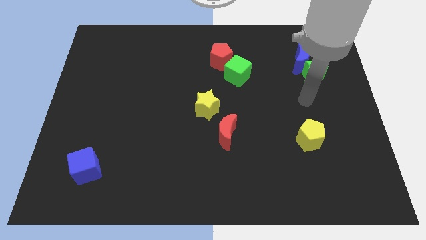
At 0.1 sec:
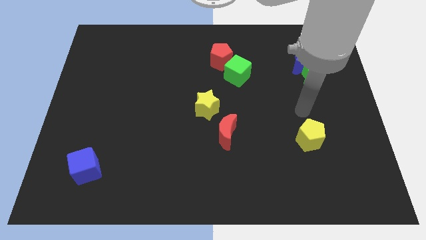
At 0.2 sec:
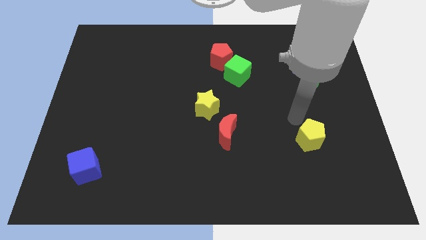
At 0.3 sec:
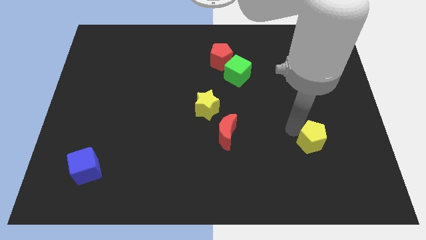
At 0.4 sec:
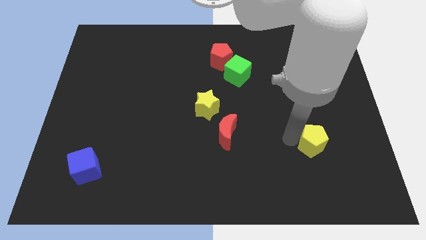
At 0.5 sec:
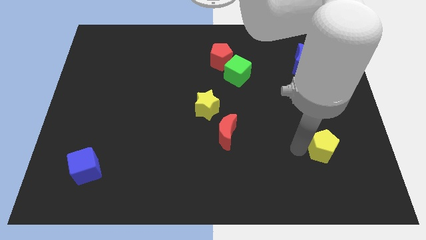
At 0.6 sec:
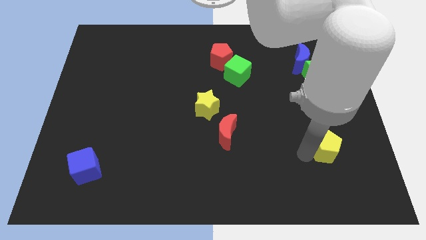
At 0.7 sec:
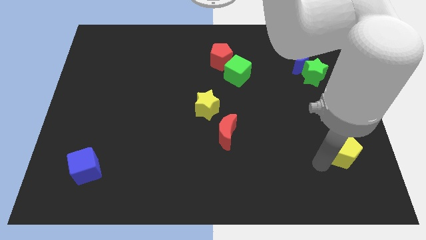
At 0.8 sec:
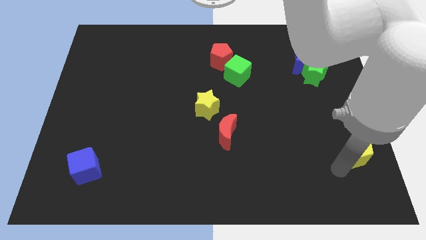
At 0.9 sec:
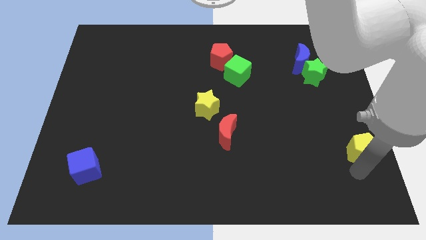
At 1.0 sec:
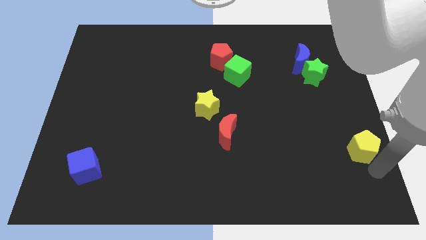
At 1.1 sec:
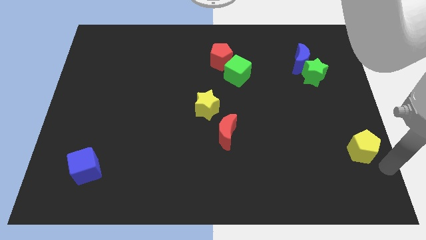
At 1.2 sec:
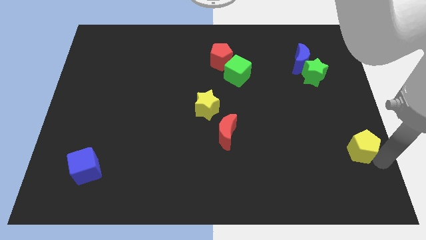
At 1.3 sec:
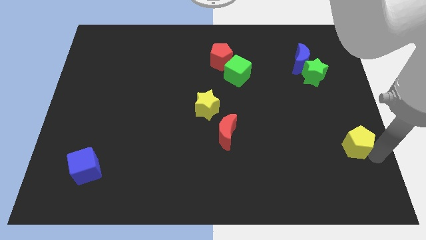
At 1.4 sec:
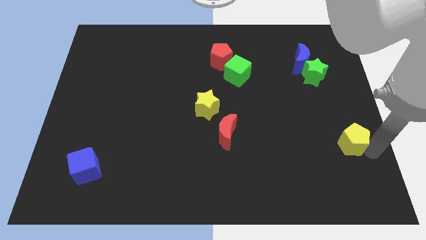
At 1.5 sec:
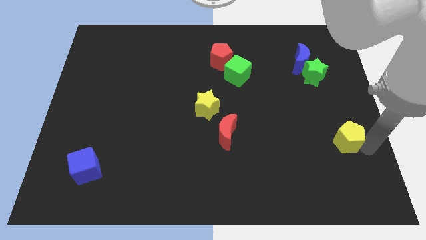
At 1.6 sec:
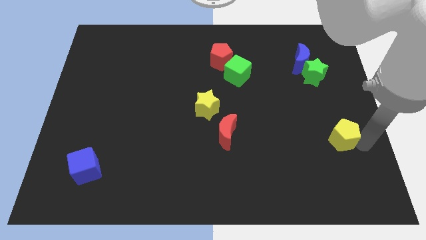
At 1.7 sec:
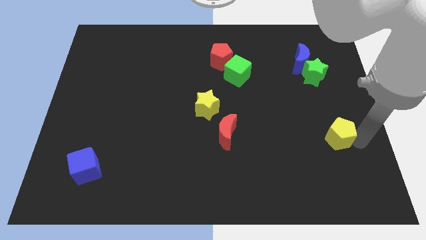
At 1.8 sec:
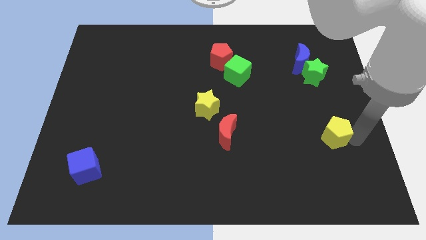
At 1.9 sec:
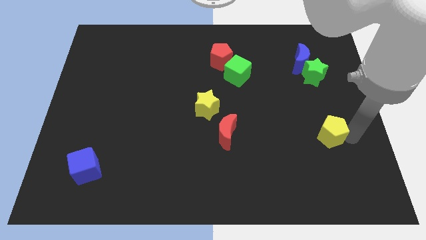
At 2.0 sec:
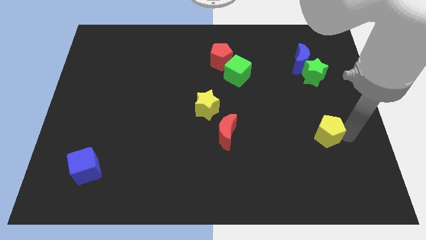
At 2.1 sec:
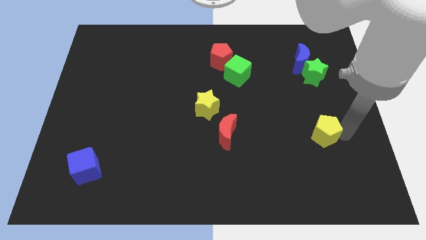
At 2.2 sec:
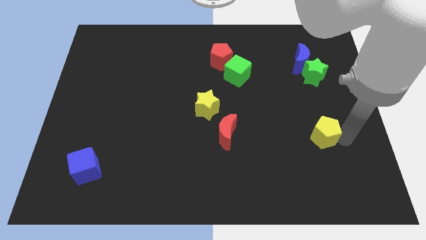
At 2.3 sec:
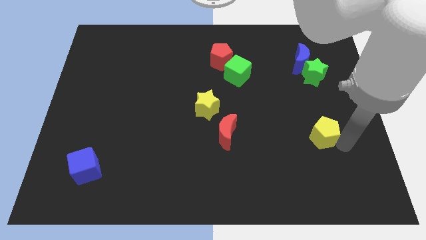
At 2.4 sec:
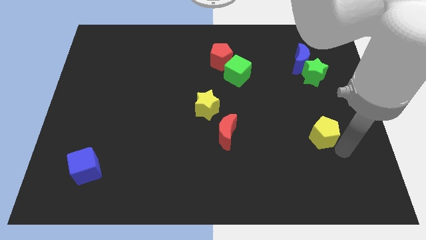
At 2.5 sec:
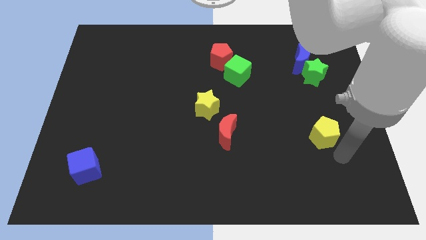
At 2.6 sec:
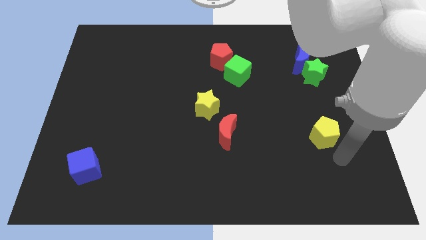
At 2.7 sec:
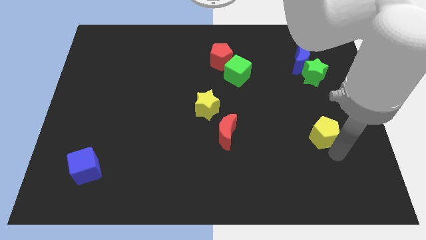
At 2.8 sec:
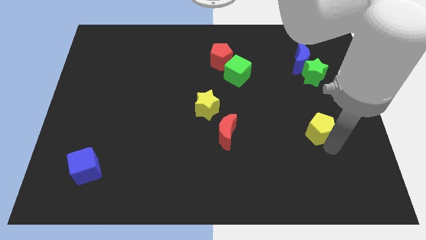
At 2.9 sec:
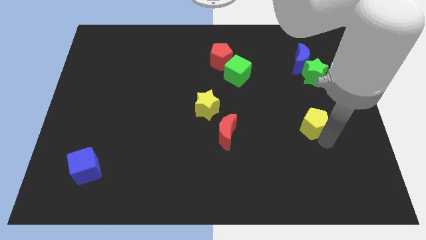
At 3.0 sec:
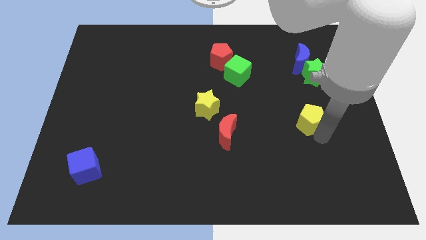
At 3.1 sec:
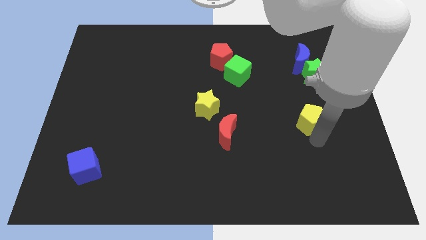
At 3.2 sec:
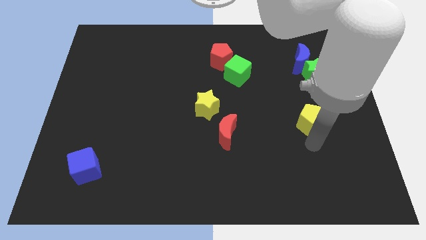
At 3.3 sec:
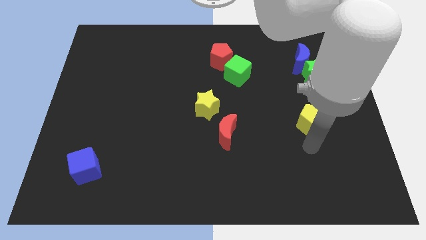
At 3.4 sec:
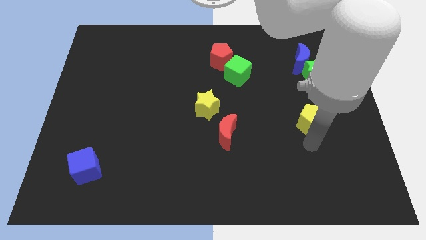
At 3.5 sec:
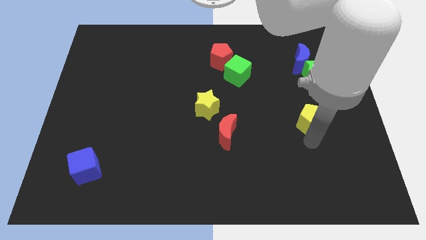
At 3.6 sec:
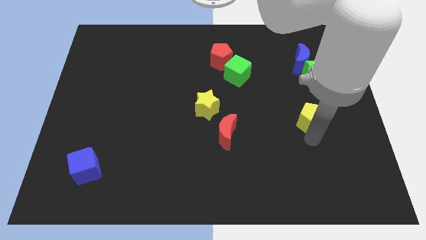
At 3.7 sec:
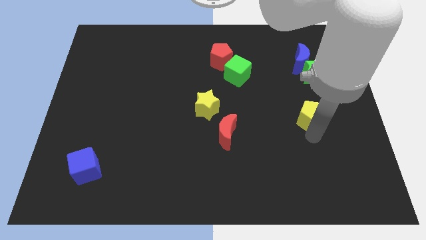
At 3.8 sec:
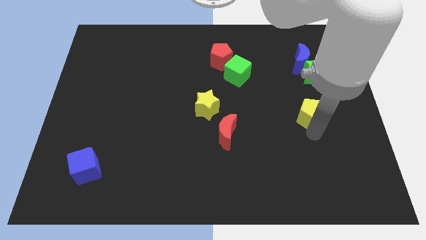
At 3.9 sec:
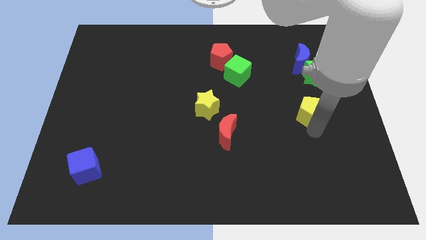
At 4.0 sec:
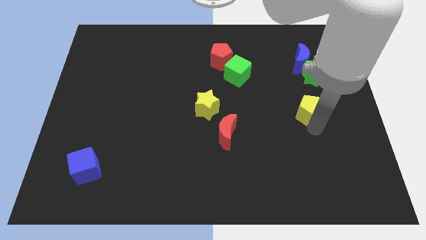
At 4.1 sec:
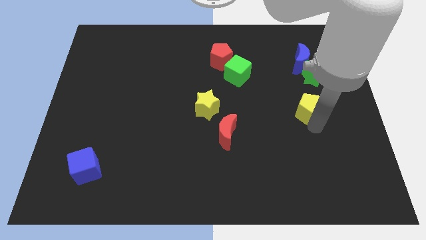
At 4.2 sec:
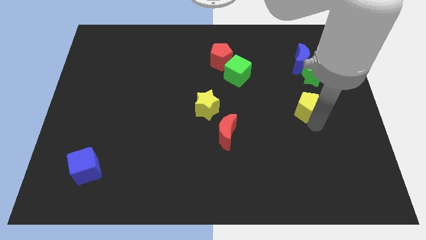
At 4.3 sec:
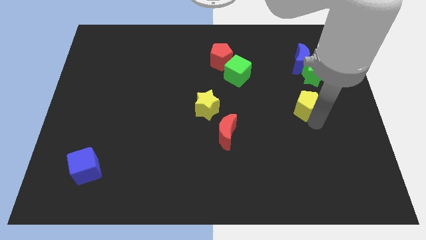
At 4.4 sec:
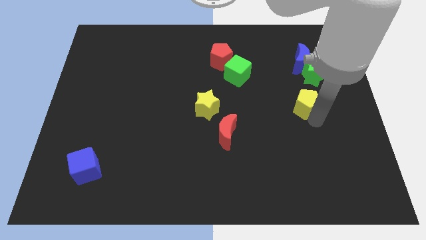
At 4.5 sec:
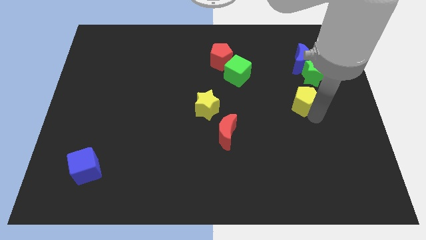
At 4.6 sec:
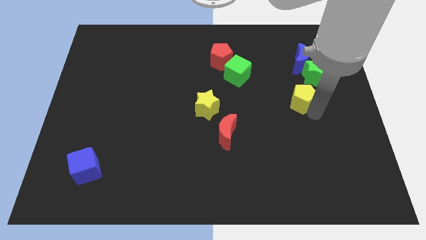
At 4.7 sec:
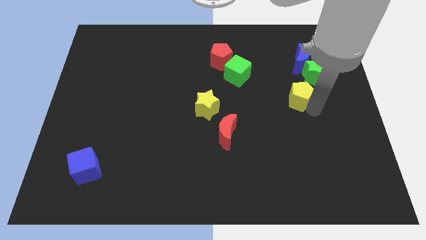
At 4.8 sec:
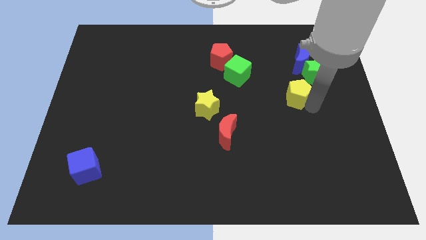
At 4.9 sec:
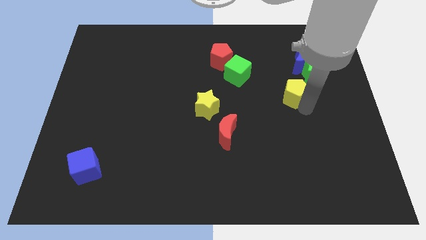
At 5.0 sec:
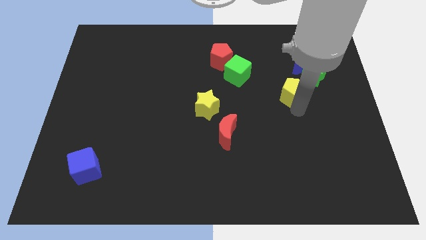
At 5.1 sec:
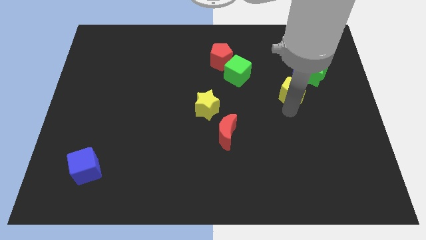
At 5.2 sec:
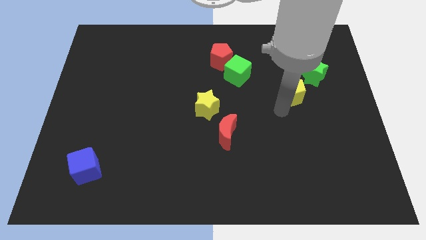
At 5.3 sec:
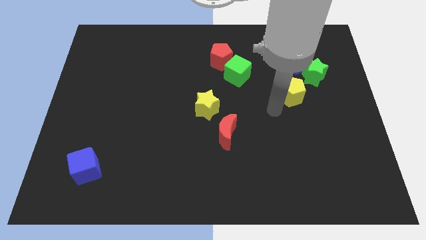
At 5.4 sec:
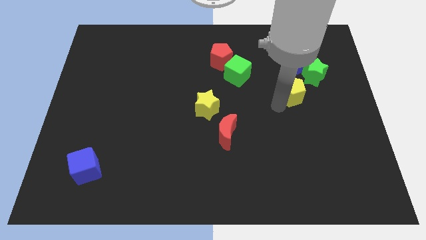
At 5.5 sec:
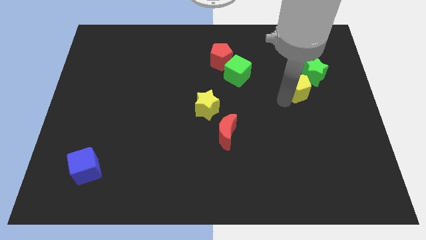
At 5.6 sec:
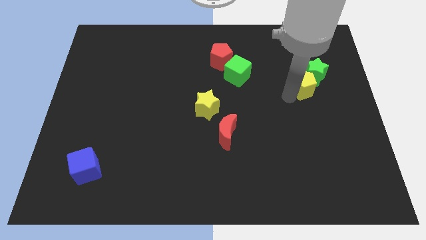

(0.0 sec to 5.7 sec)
push the yellow pentagon to the green star

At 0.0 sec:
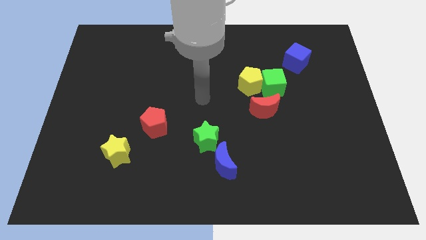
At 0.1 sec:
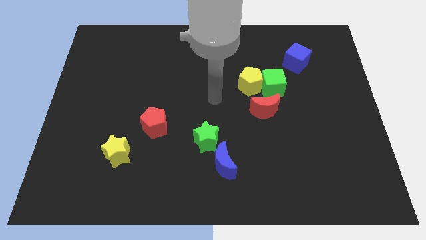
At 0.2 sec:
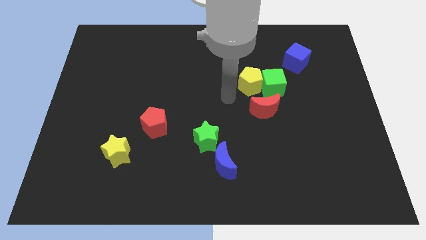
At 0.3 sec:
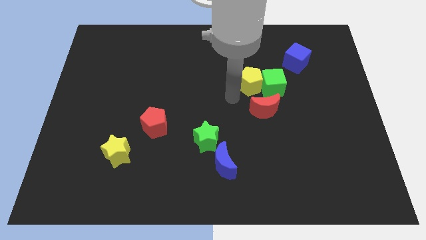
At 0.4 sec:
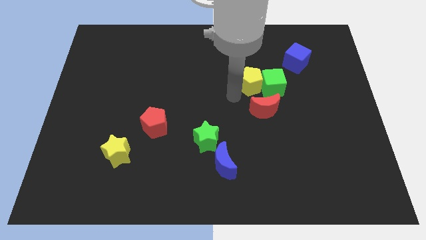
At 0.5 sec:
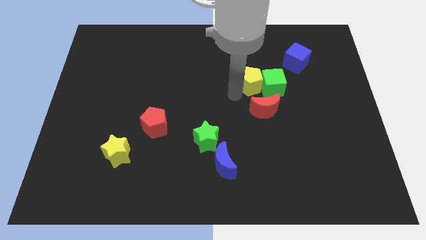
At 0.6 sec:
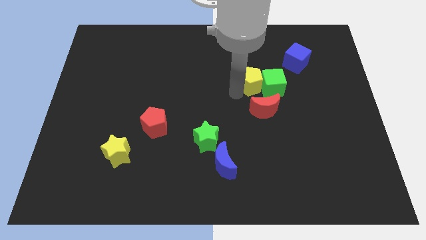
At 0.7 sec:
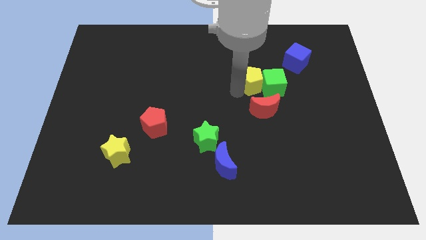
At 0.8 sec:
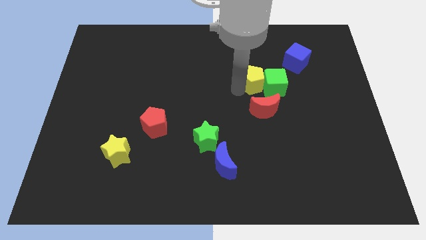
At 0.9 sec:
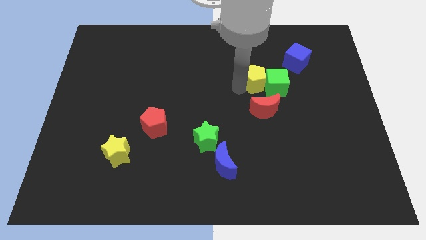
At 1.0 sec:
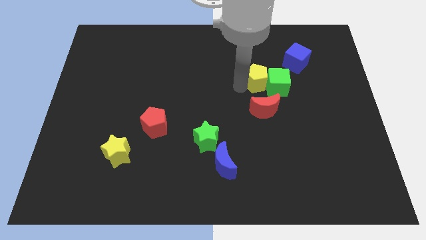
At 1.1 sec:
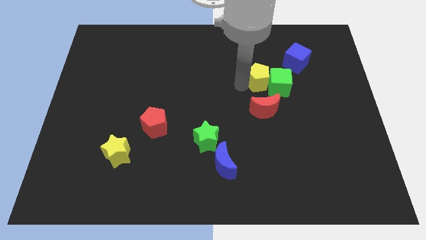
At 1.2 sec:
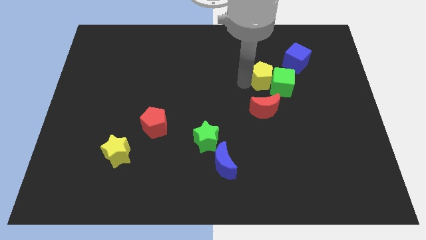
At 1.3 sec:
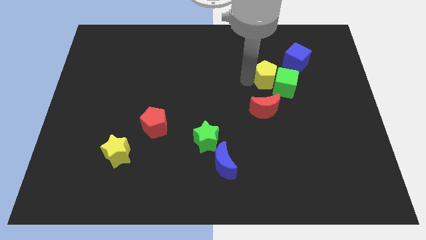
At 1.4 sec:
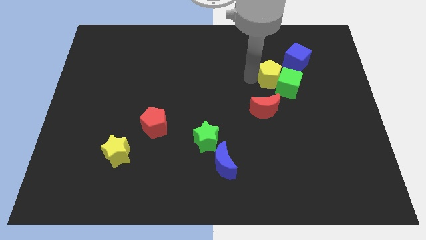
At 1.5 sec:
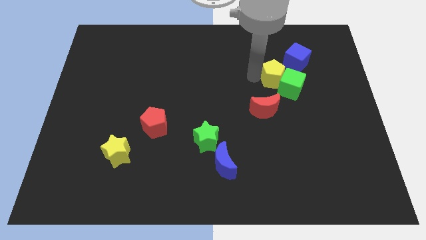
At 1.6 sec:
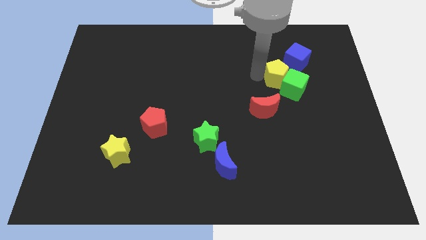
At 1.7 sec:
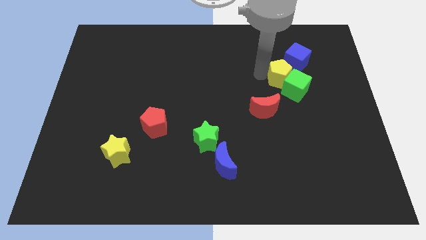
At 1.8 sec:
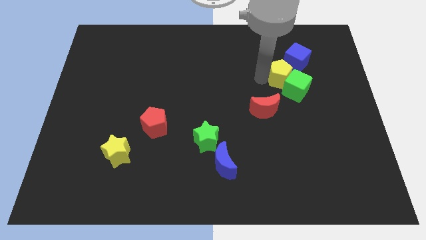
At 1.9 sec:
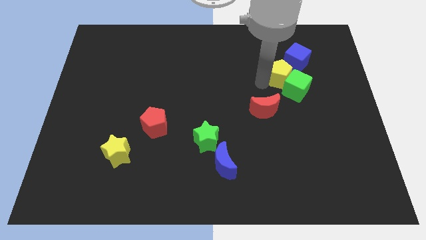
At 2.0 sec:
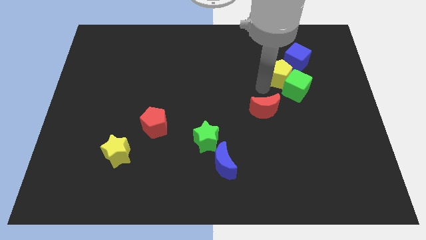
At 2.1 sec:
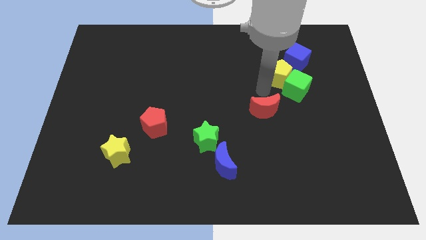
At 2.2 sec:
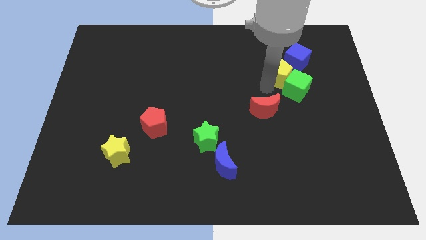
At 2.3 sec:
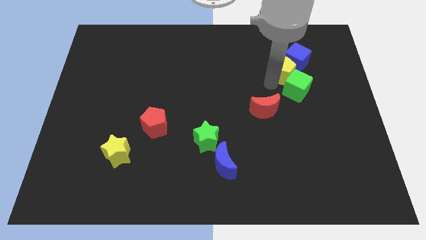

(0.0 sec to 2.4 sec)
put the yellow pentagon close to the blue cube
